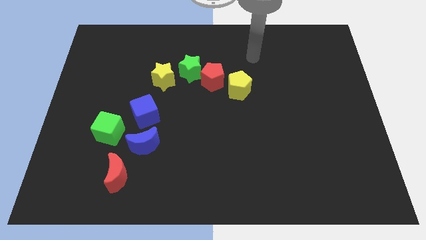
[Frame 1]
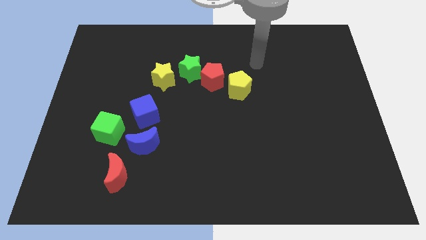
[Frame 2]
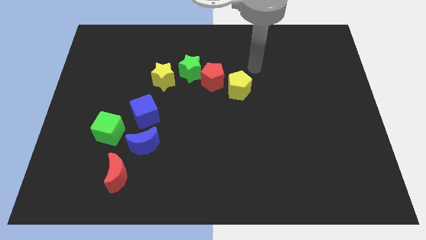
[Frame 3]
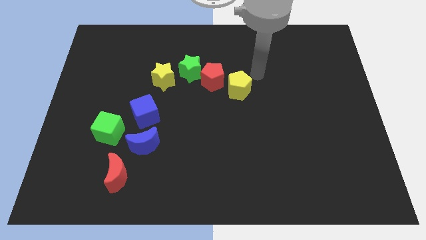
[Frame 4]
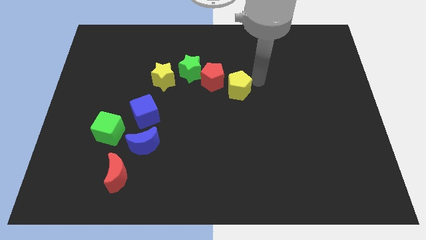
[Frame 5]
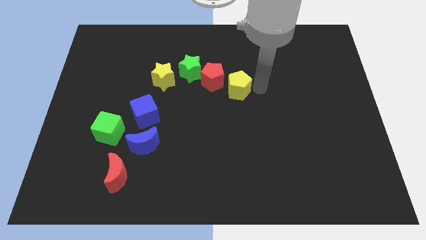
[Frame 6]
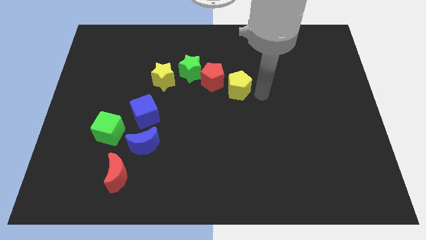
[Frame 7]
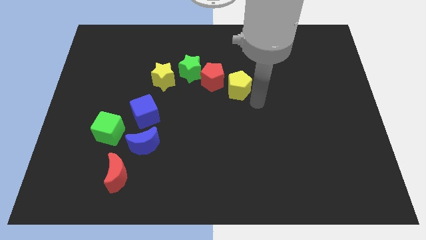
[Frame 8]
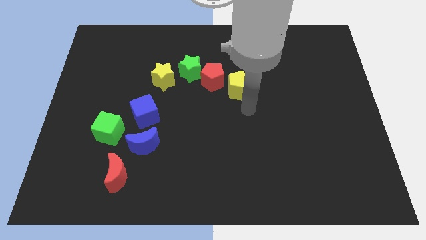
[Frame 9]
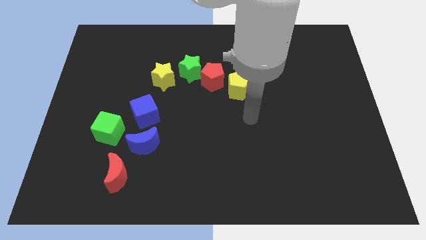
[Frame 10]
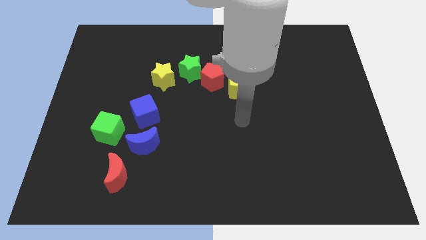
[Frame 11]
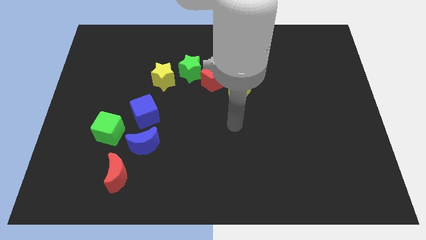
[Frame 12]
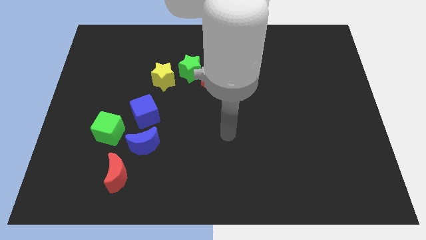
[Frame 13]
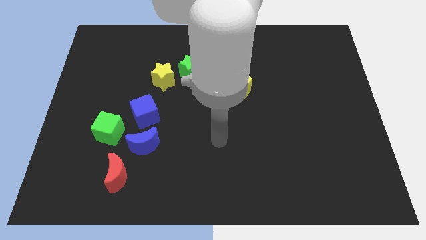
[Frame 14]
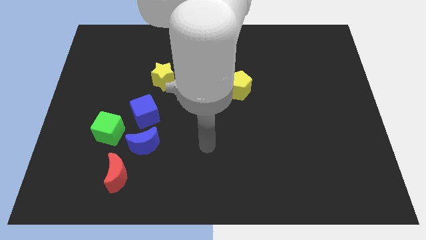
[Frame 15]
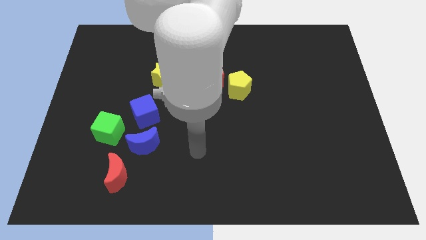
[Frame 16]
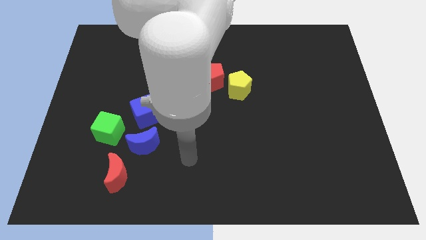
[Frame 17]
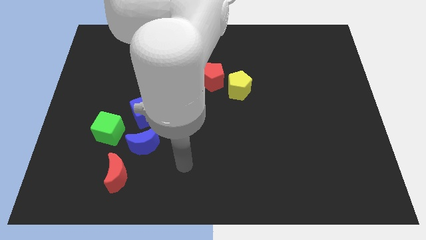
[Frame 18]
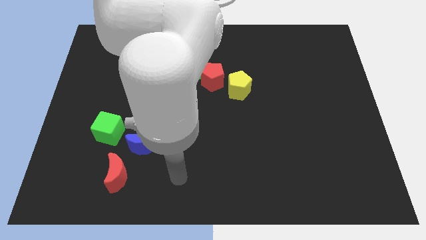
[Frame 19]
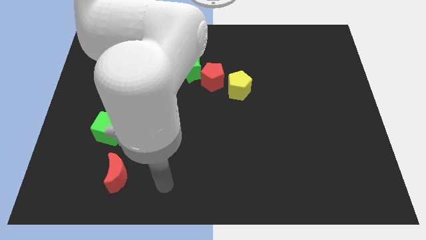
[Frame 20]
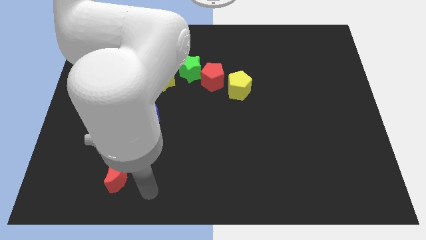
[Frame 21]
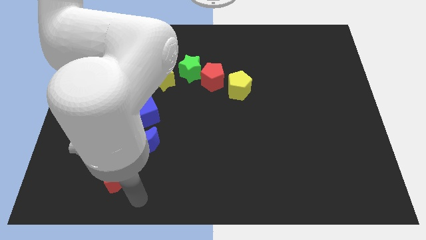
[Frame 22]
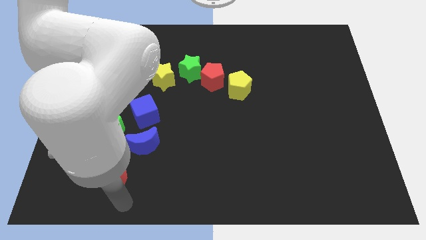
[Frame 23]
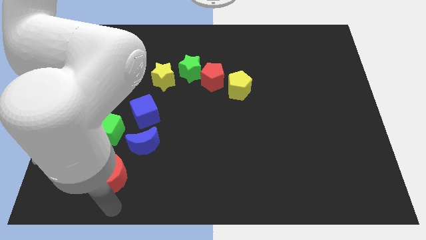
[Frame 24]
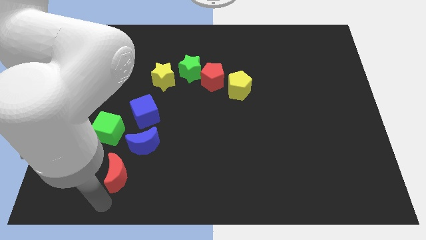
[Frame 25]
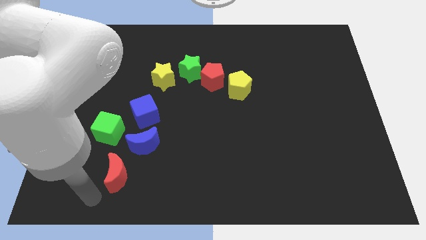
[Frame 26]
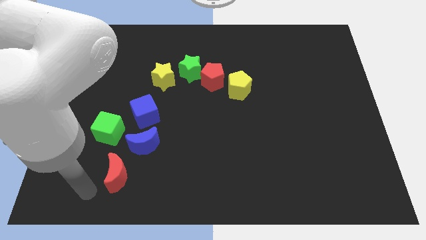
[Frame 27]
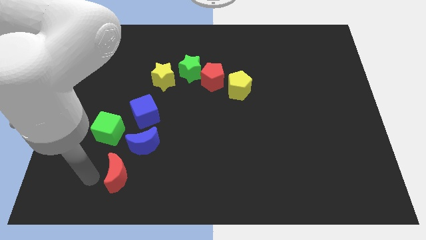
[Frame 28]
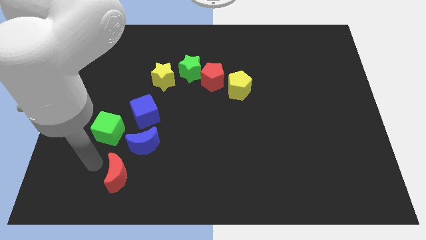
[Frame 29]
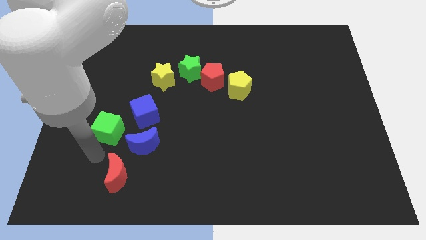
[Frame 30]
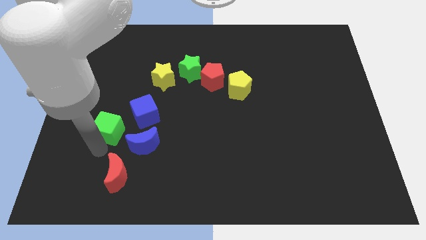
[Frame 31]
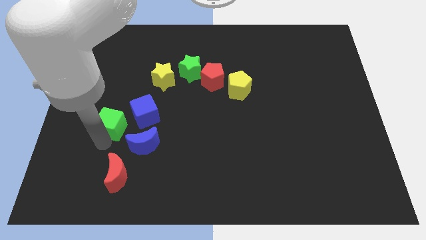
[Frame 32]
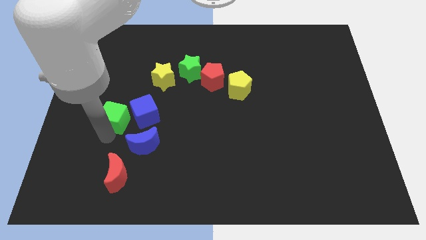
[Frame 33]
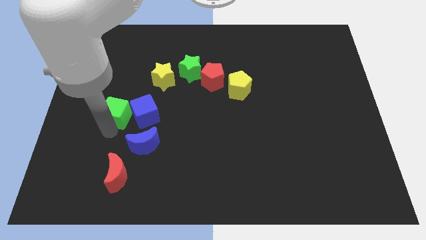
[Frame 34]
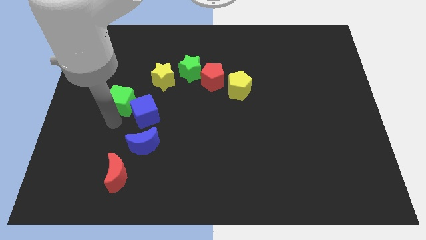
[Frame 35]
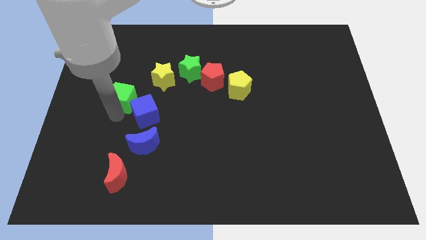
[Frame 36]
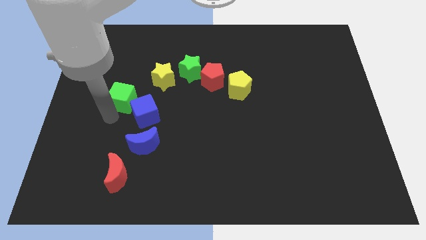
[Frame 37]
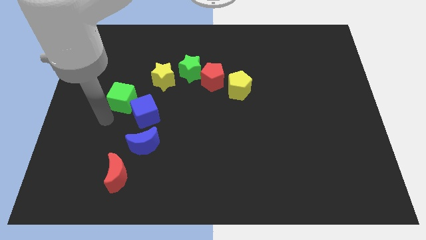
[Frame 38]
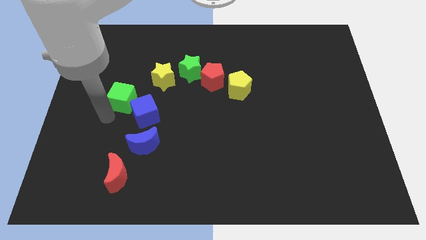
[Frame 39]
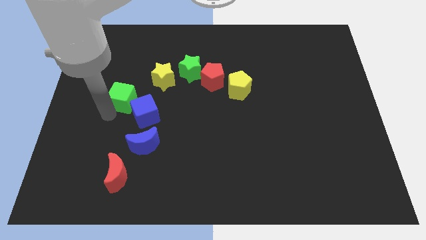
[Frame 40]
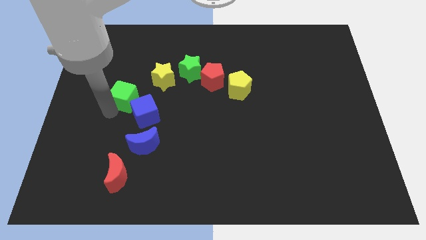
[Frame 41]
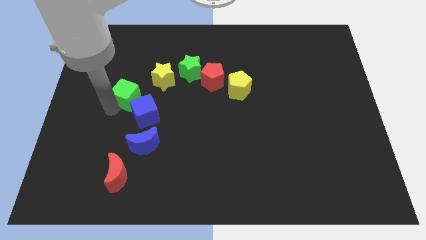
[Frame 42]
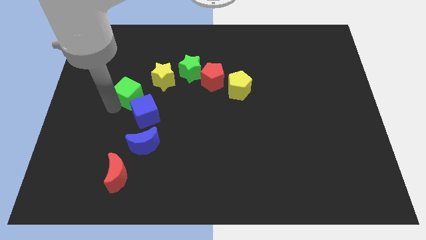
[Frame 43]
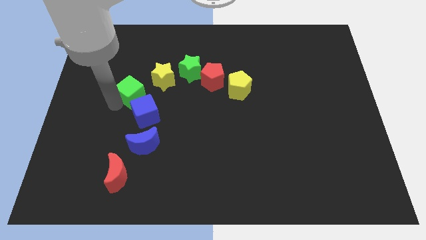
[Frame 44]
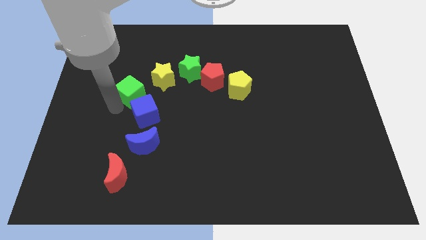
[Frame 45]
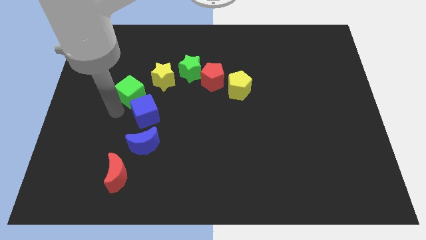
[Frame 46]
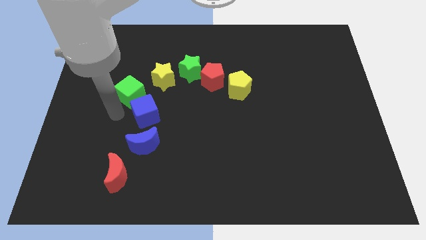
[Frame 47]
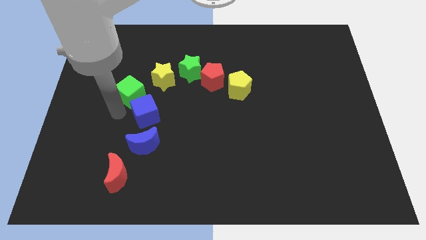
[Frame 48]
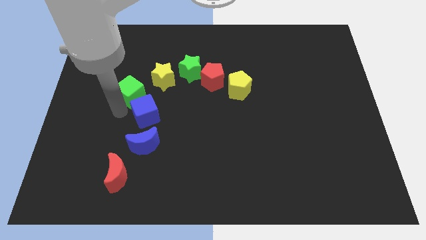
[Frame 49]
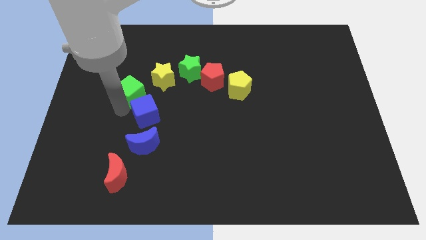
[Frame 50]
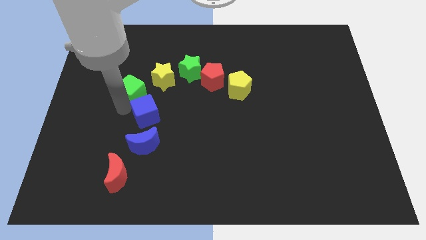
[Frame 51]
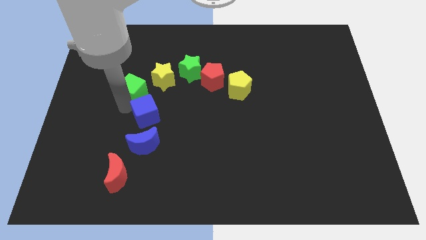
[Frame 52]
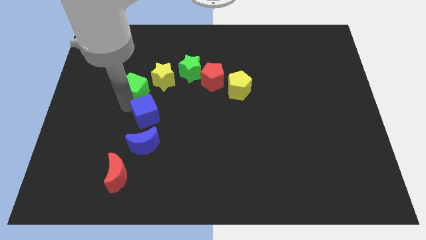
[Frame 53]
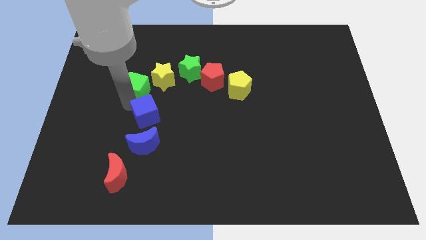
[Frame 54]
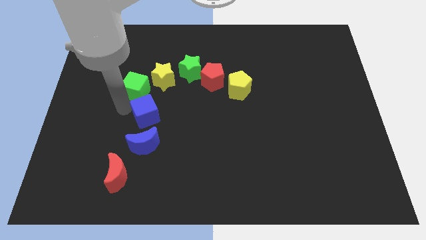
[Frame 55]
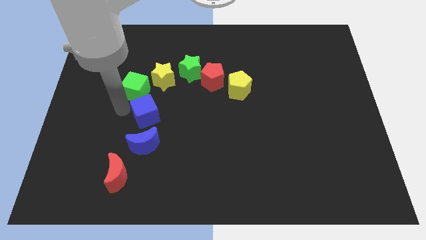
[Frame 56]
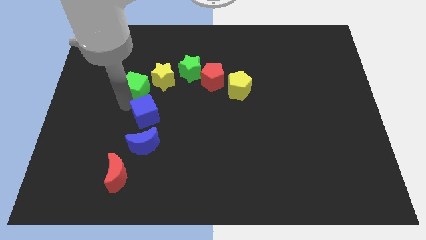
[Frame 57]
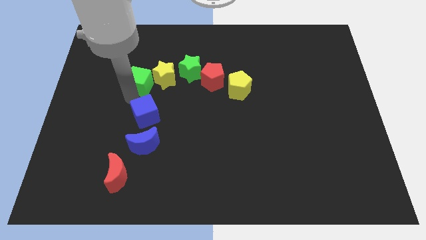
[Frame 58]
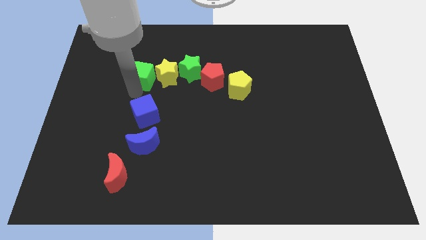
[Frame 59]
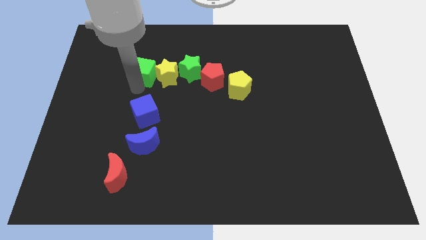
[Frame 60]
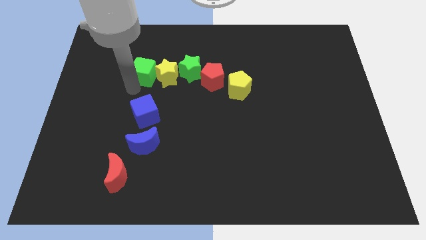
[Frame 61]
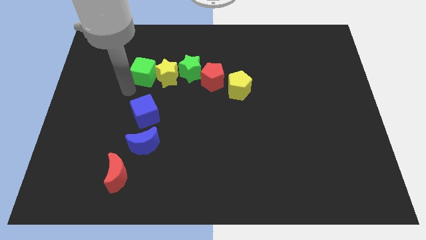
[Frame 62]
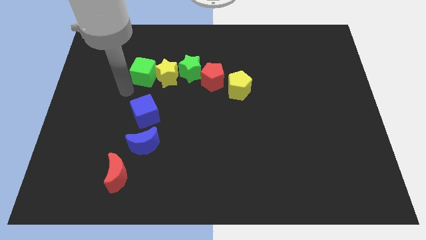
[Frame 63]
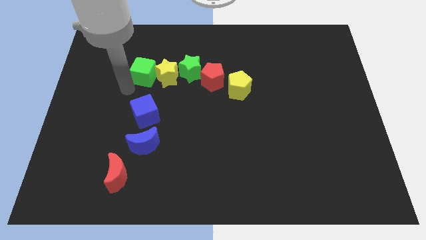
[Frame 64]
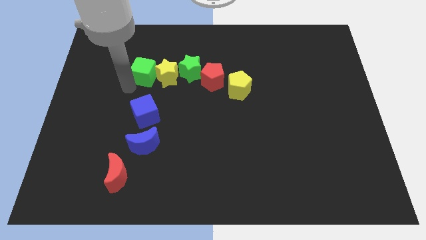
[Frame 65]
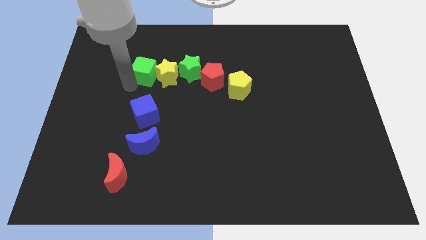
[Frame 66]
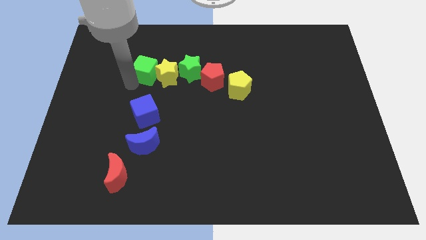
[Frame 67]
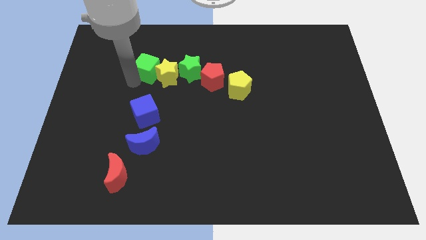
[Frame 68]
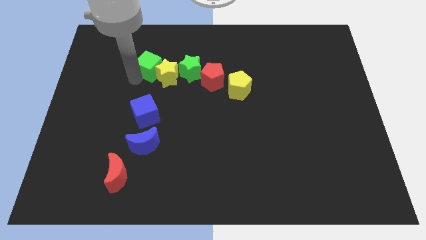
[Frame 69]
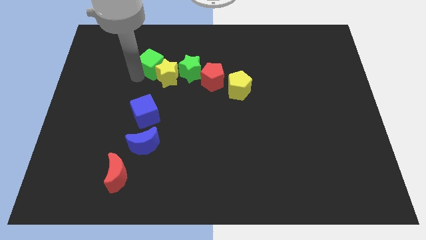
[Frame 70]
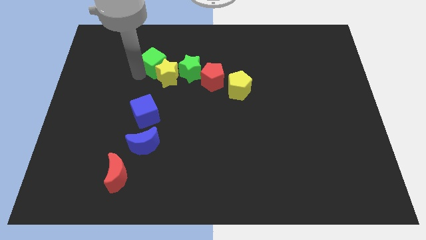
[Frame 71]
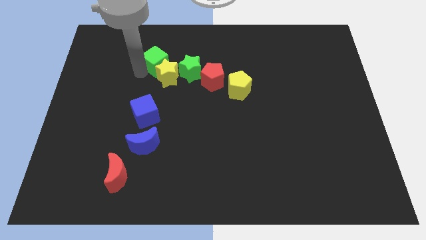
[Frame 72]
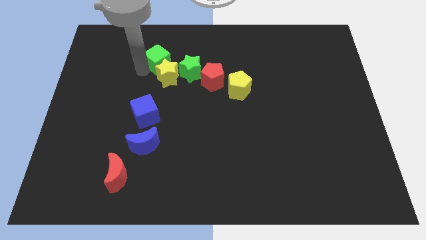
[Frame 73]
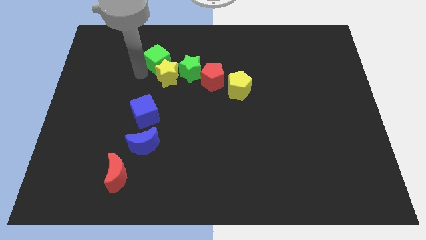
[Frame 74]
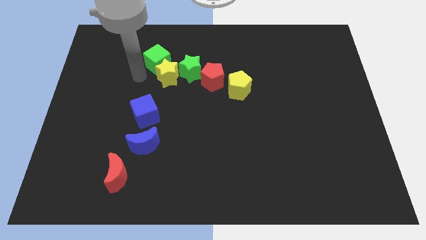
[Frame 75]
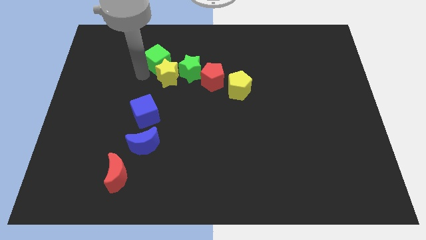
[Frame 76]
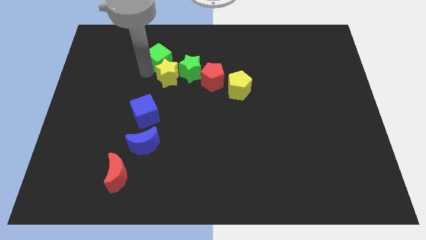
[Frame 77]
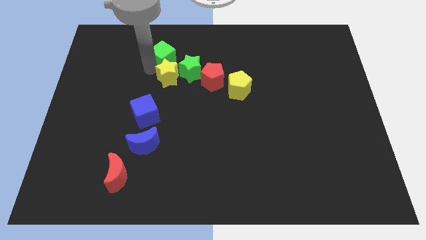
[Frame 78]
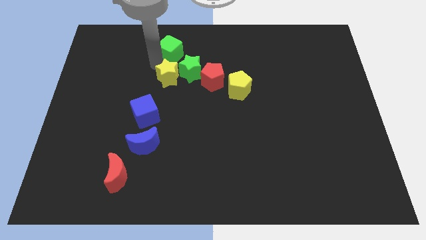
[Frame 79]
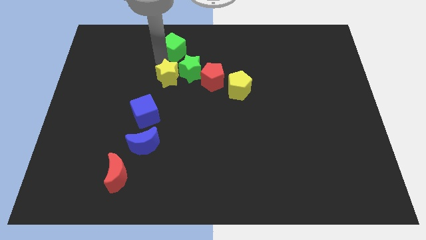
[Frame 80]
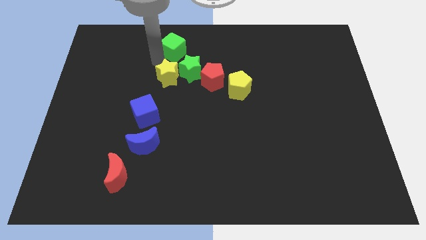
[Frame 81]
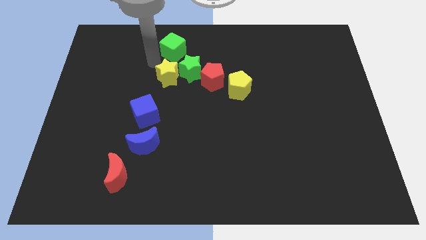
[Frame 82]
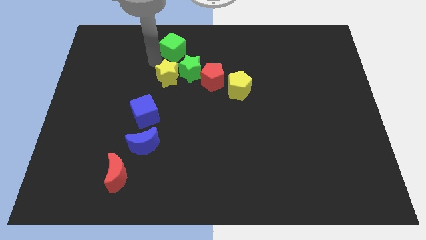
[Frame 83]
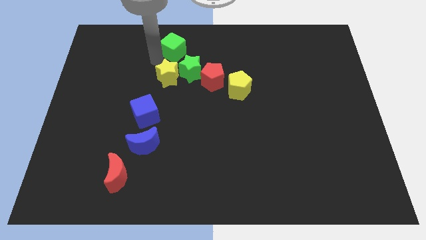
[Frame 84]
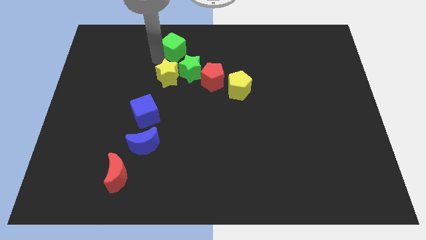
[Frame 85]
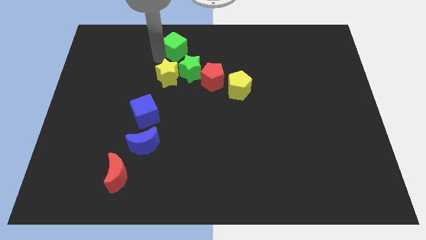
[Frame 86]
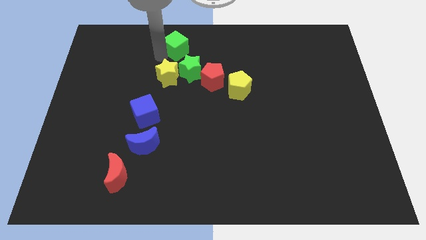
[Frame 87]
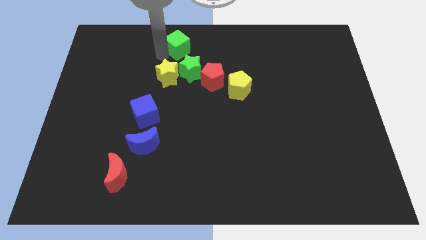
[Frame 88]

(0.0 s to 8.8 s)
put the green cube to the towards your base
